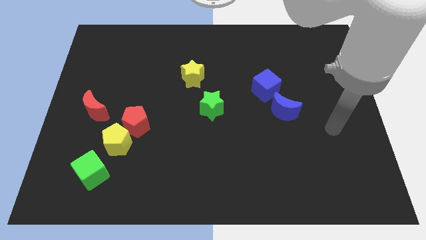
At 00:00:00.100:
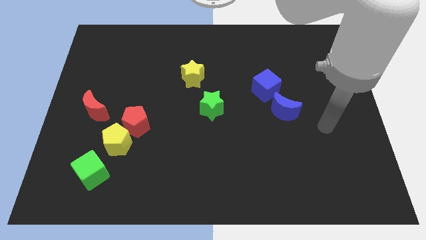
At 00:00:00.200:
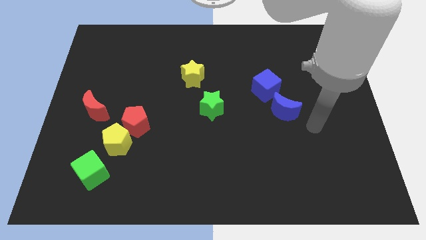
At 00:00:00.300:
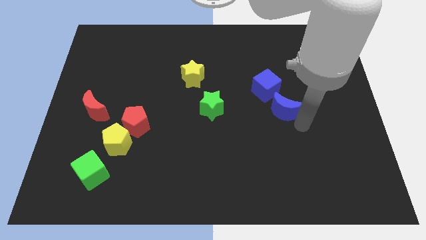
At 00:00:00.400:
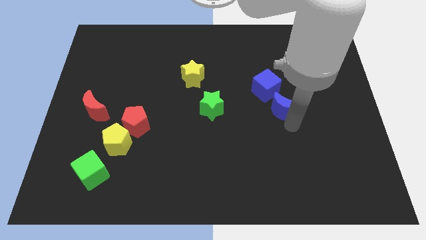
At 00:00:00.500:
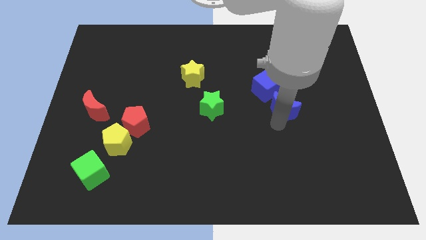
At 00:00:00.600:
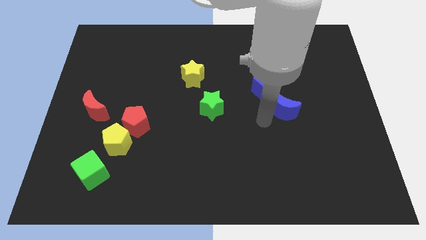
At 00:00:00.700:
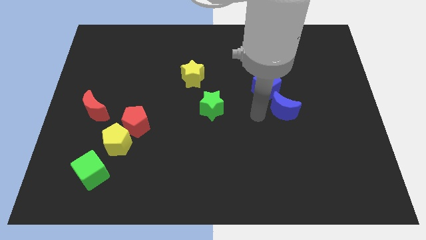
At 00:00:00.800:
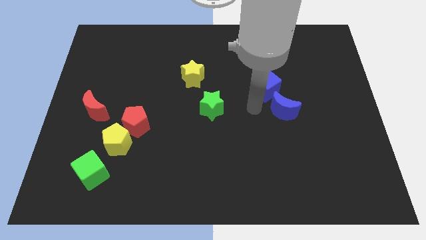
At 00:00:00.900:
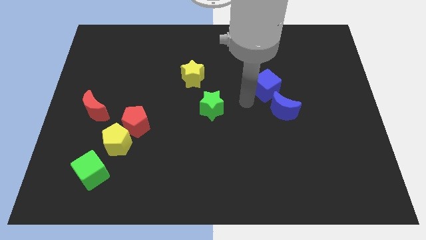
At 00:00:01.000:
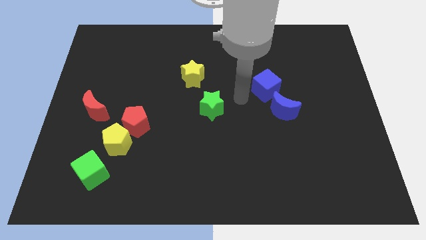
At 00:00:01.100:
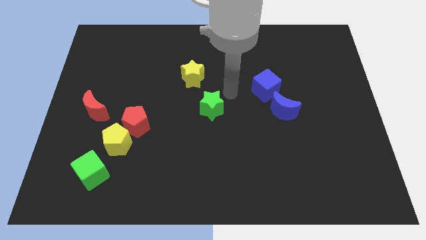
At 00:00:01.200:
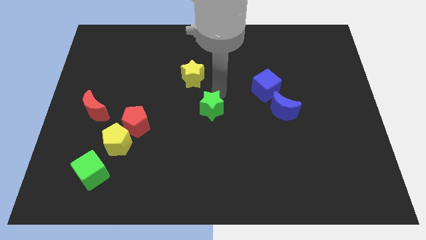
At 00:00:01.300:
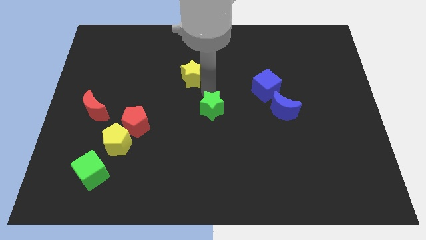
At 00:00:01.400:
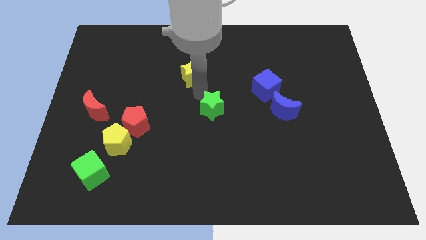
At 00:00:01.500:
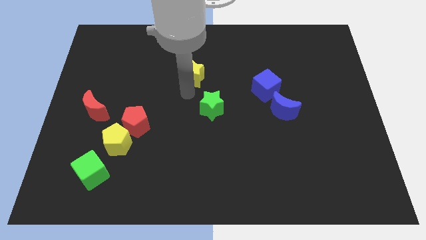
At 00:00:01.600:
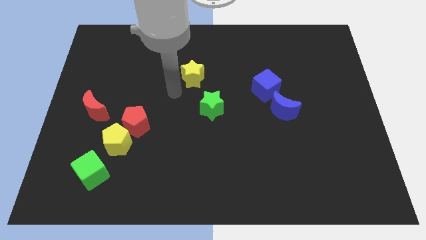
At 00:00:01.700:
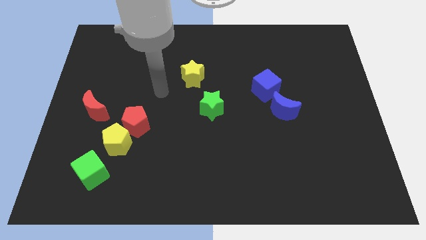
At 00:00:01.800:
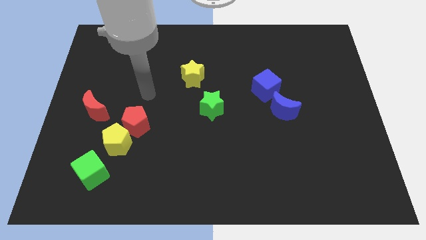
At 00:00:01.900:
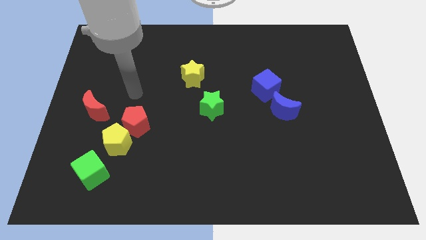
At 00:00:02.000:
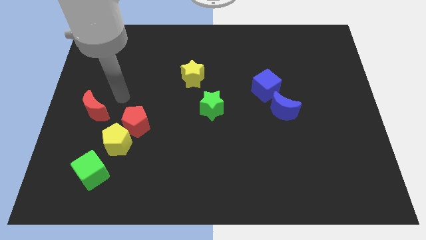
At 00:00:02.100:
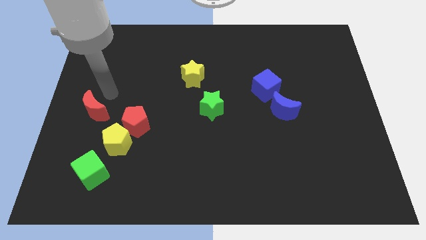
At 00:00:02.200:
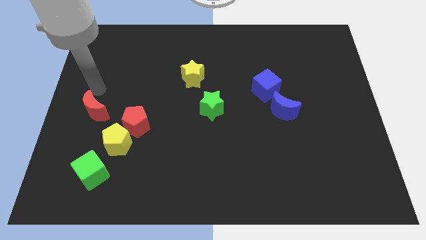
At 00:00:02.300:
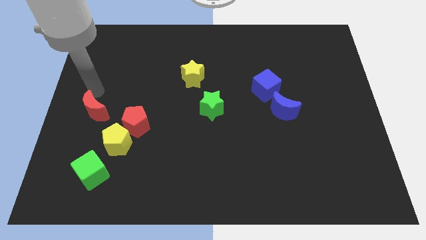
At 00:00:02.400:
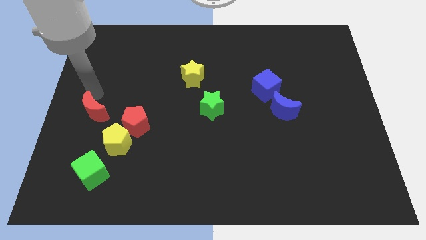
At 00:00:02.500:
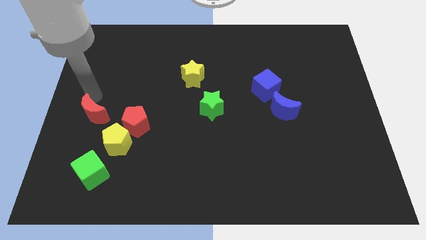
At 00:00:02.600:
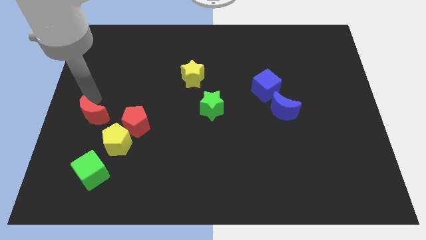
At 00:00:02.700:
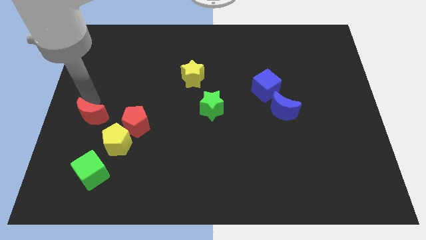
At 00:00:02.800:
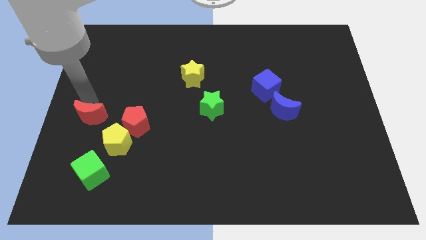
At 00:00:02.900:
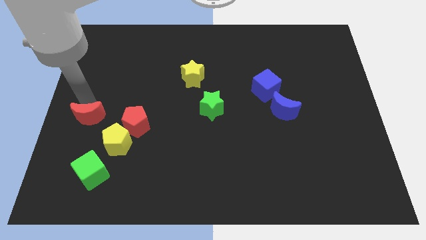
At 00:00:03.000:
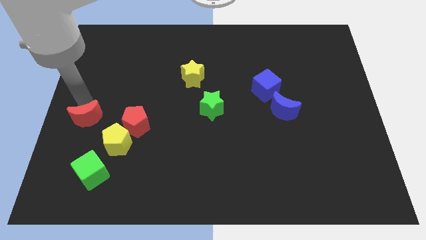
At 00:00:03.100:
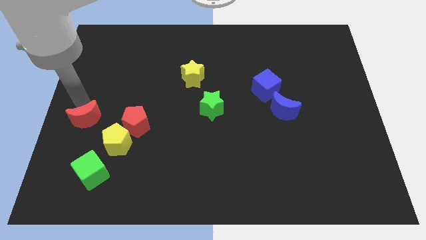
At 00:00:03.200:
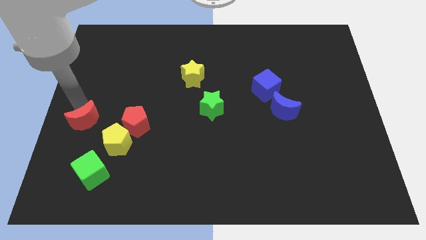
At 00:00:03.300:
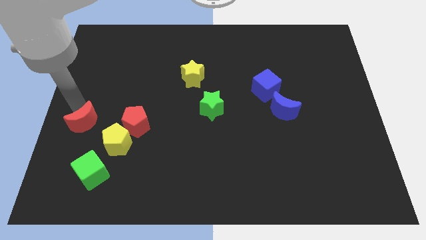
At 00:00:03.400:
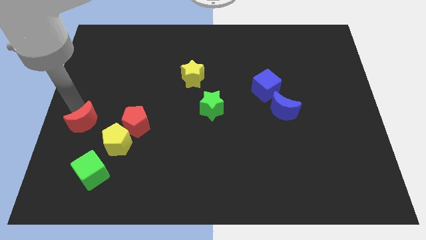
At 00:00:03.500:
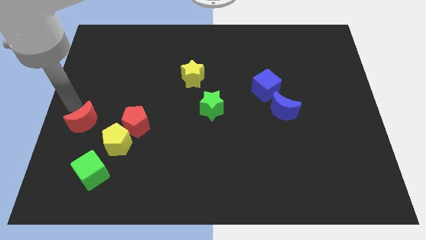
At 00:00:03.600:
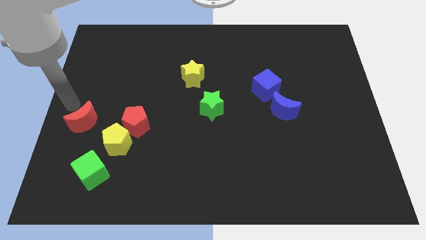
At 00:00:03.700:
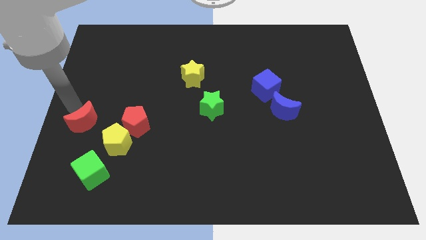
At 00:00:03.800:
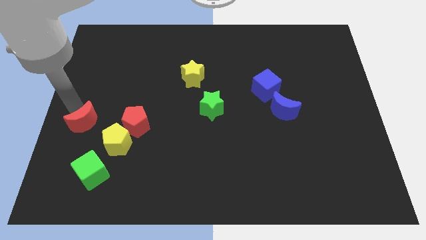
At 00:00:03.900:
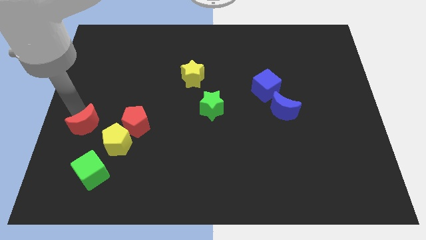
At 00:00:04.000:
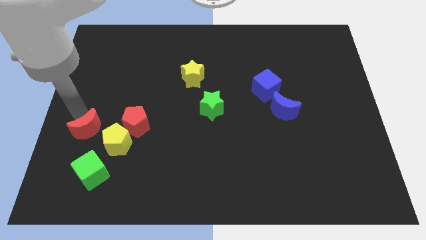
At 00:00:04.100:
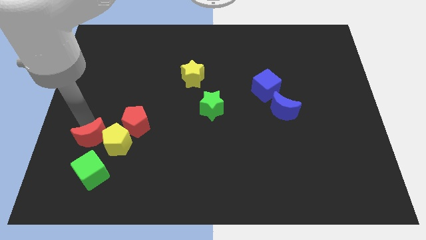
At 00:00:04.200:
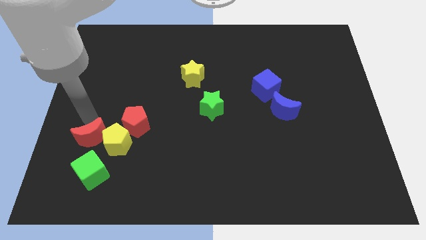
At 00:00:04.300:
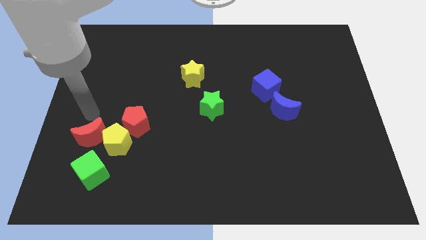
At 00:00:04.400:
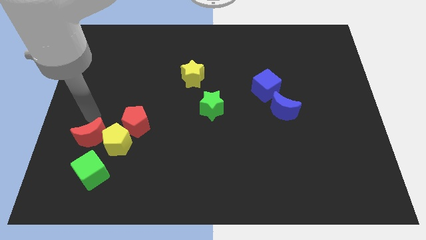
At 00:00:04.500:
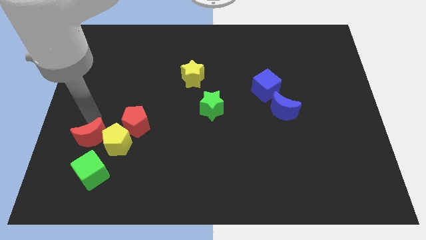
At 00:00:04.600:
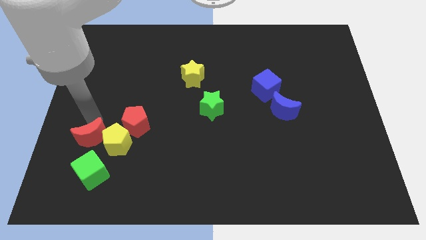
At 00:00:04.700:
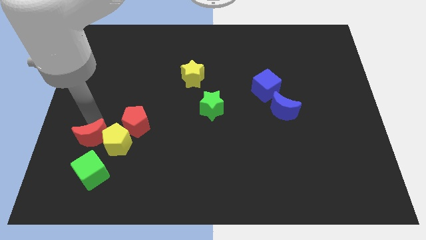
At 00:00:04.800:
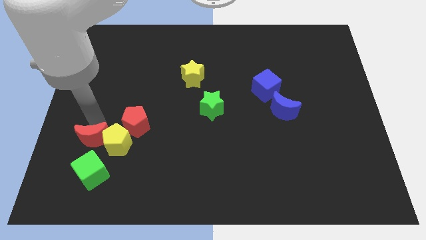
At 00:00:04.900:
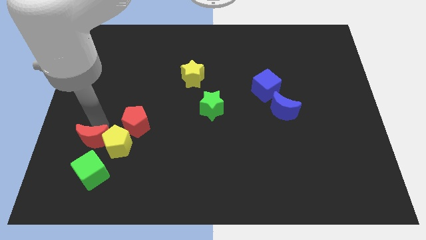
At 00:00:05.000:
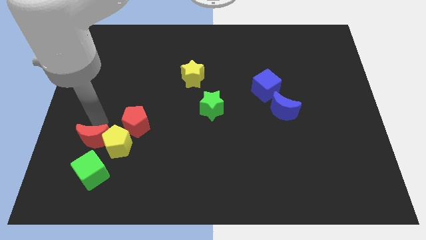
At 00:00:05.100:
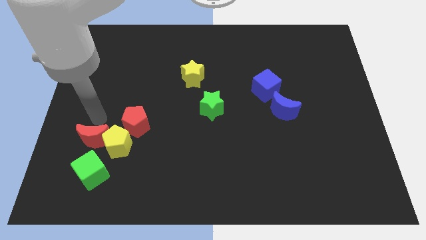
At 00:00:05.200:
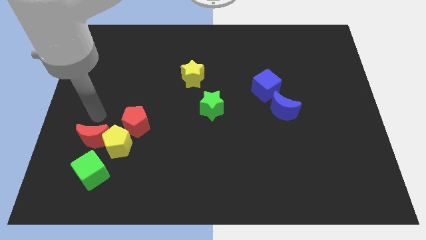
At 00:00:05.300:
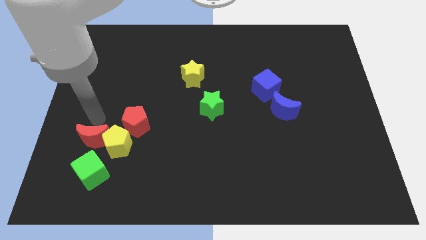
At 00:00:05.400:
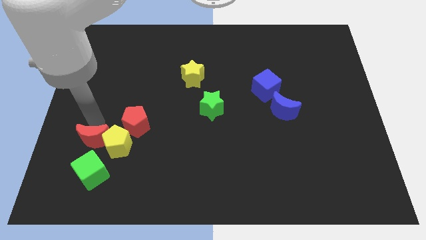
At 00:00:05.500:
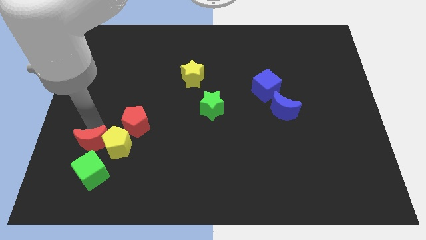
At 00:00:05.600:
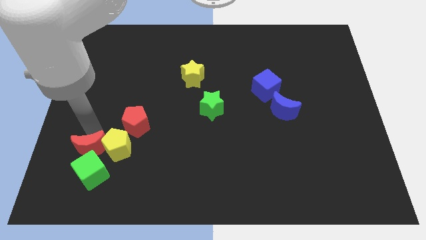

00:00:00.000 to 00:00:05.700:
move the red moon next to the green cube
